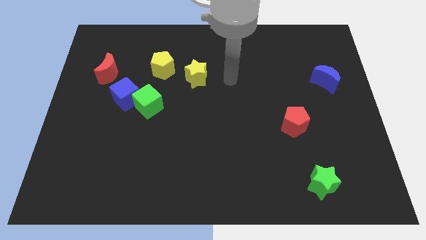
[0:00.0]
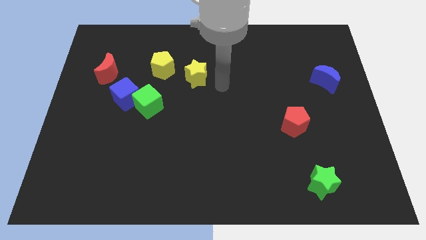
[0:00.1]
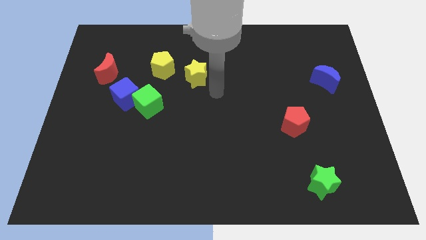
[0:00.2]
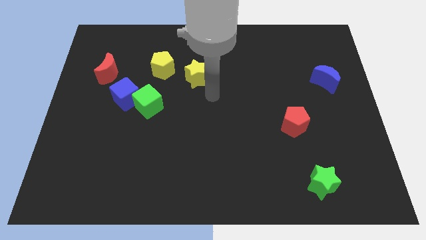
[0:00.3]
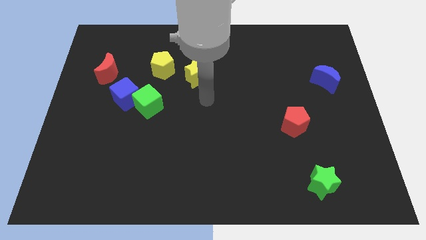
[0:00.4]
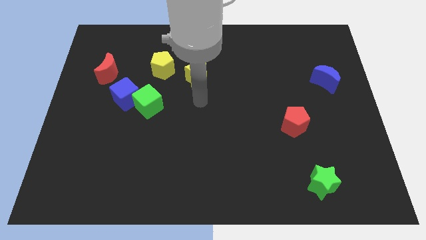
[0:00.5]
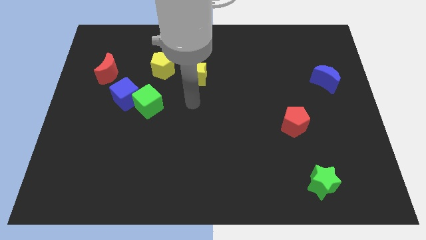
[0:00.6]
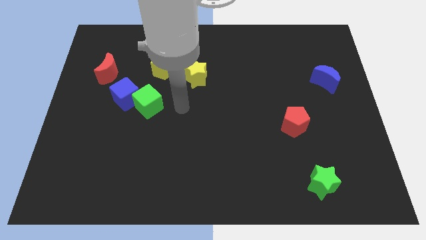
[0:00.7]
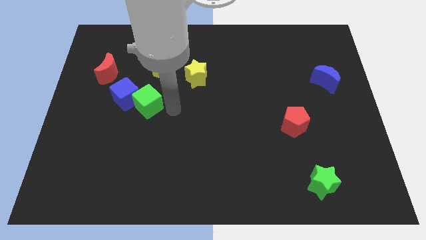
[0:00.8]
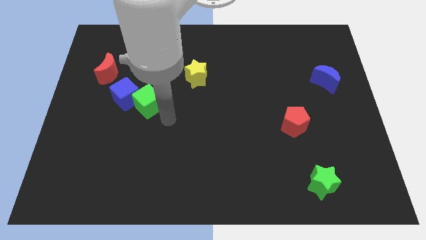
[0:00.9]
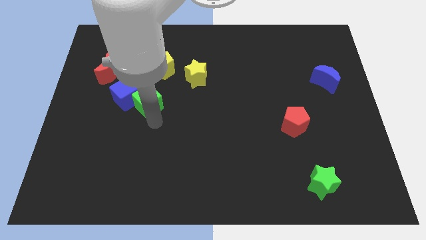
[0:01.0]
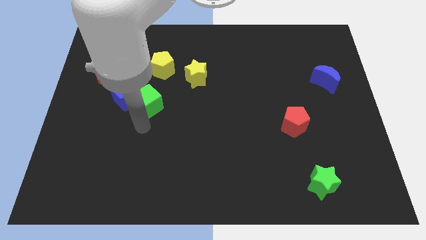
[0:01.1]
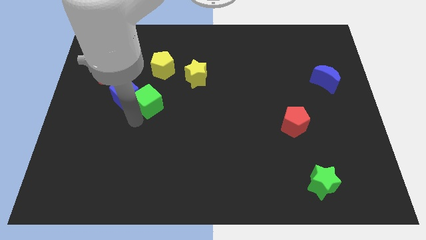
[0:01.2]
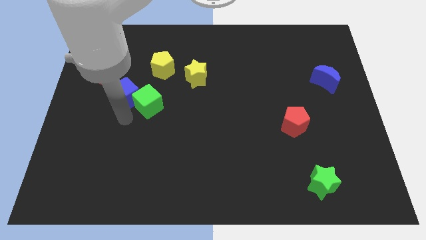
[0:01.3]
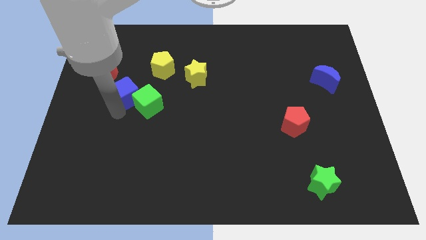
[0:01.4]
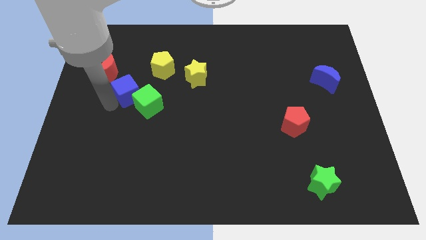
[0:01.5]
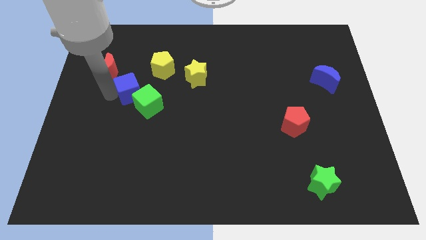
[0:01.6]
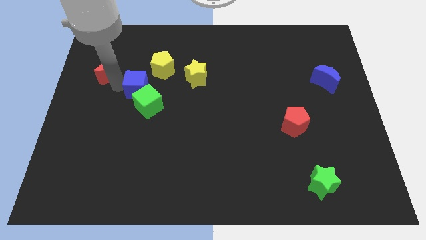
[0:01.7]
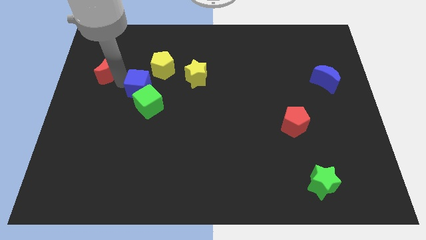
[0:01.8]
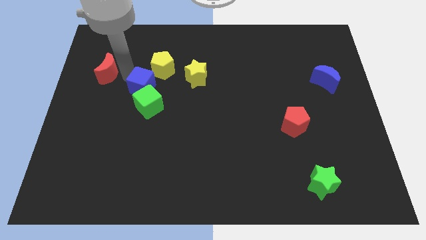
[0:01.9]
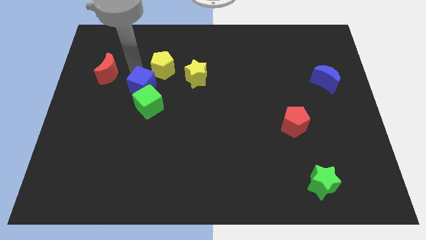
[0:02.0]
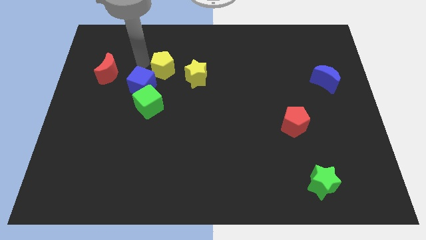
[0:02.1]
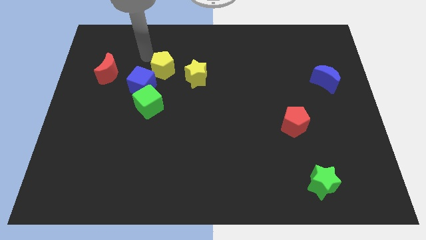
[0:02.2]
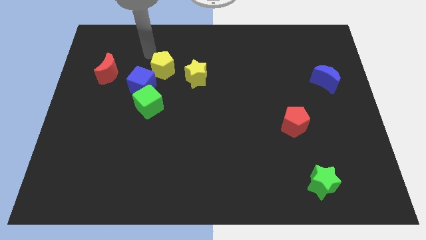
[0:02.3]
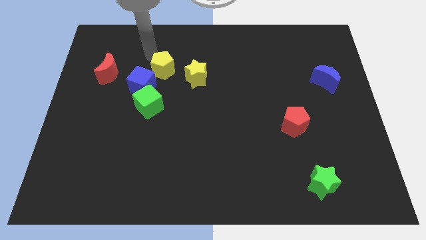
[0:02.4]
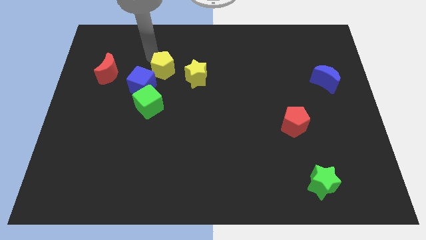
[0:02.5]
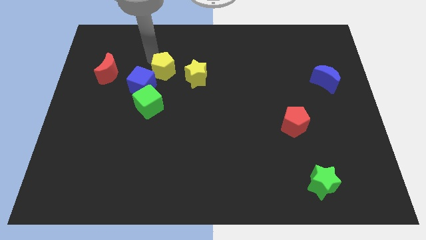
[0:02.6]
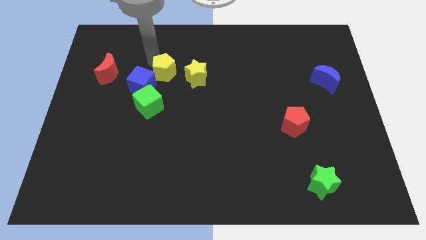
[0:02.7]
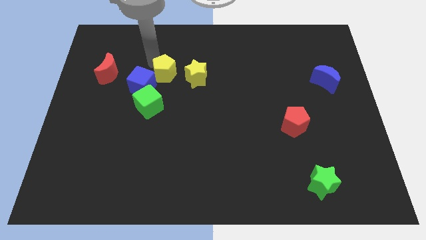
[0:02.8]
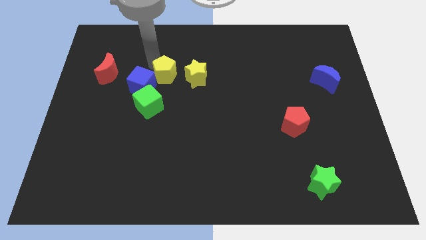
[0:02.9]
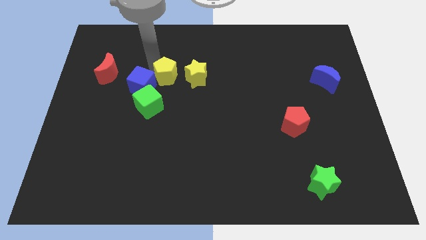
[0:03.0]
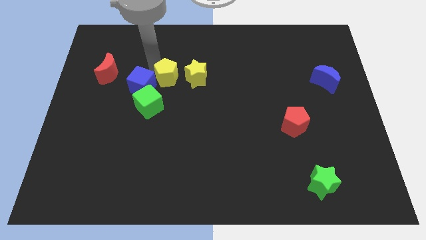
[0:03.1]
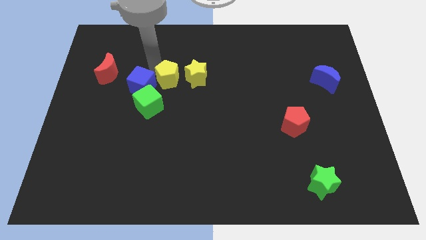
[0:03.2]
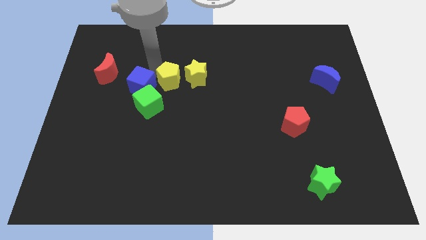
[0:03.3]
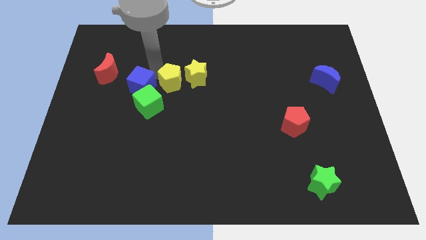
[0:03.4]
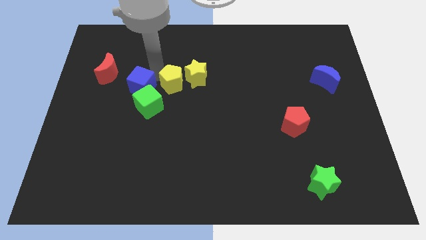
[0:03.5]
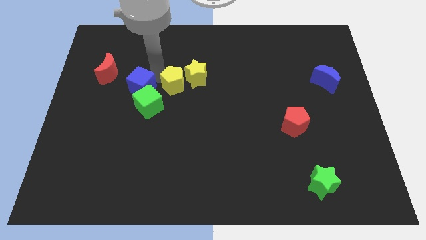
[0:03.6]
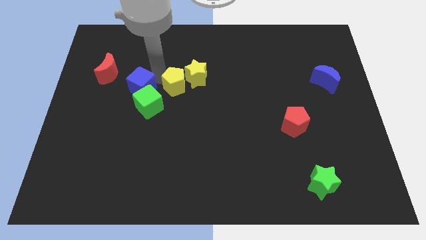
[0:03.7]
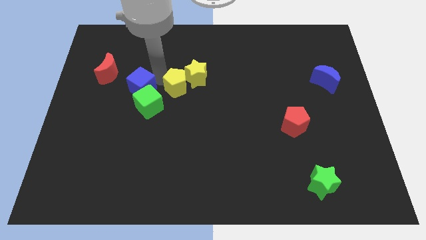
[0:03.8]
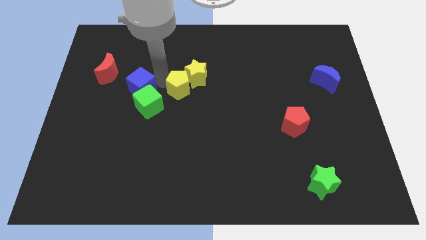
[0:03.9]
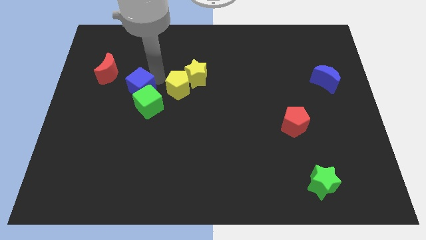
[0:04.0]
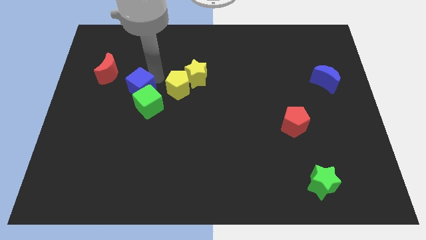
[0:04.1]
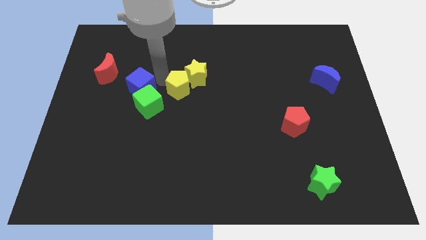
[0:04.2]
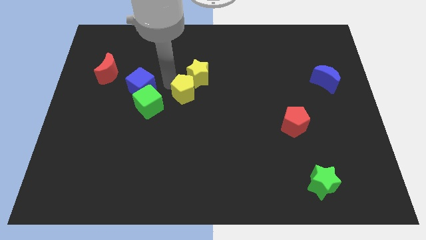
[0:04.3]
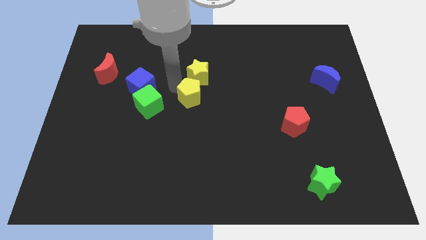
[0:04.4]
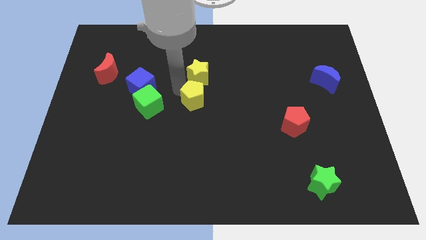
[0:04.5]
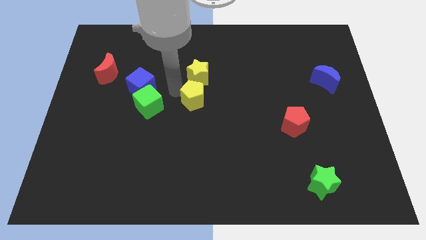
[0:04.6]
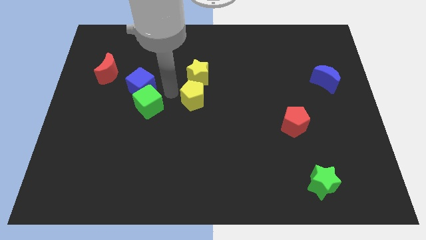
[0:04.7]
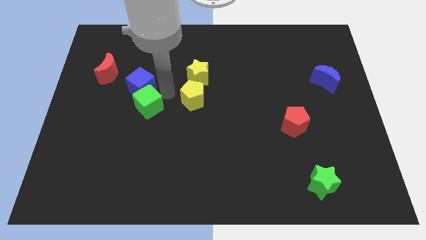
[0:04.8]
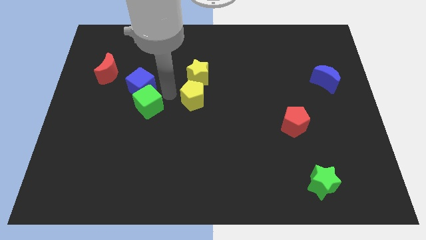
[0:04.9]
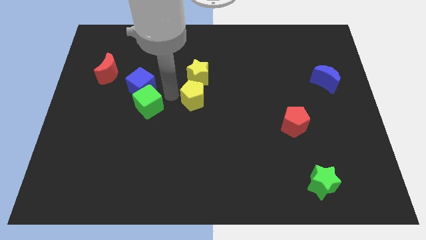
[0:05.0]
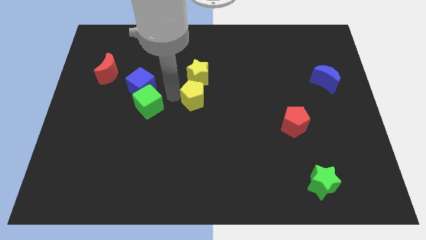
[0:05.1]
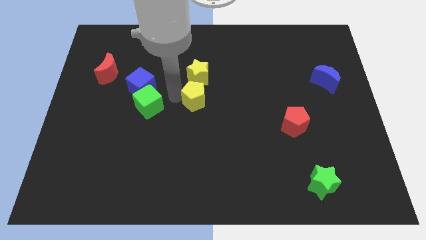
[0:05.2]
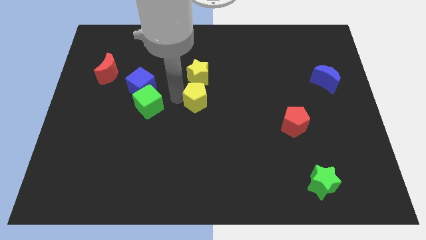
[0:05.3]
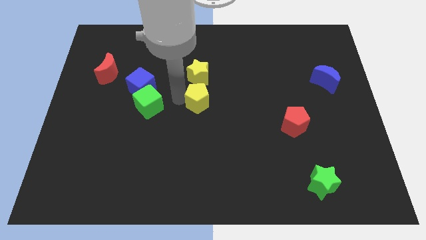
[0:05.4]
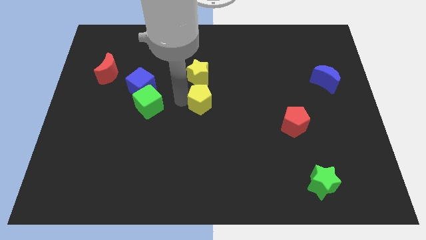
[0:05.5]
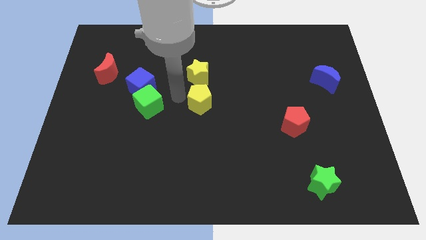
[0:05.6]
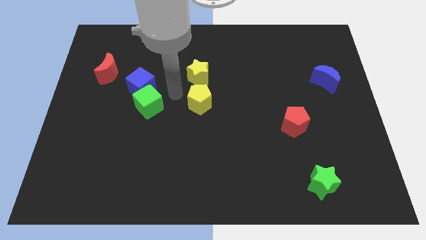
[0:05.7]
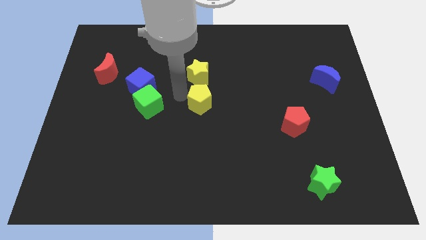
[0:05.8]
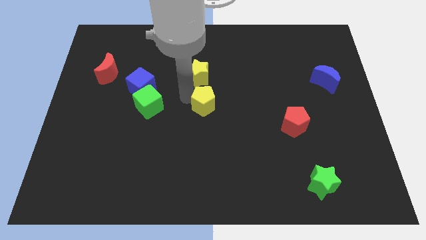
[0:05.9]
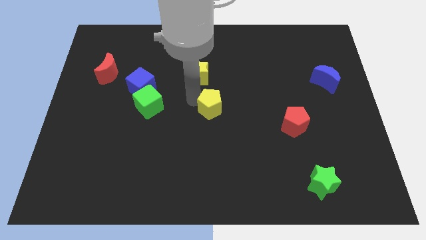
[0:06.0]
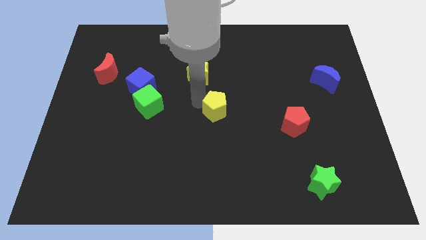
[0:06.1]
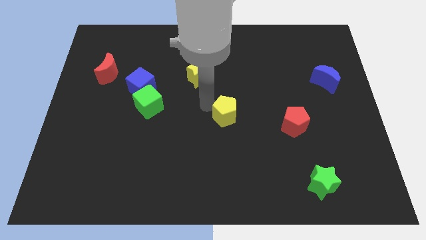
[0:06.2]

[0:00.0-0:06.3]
move the yellow pentagon down and right

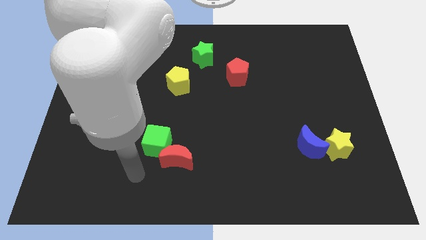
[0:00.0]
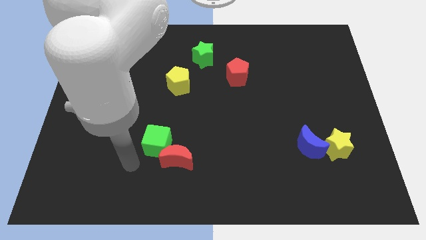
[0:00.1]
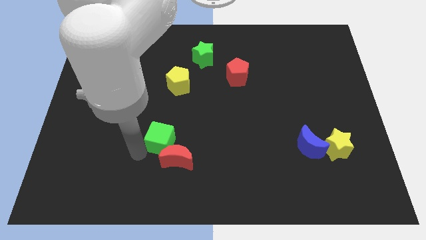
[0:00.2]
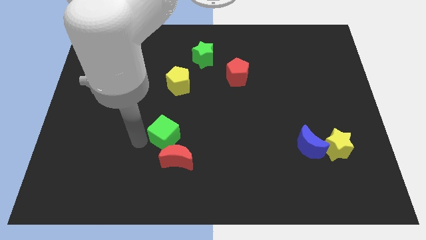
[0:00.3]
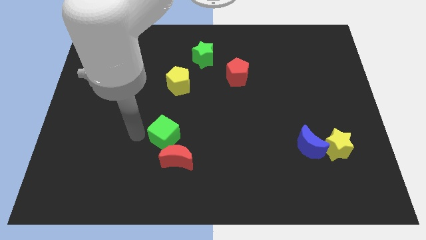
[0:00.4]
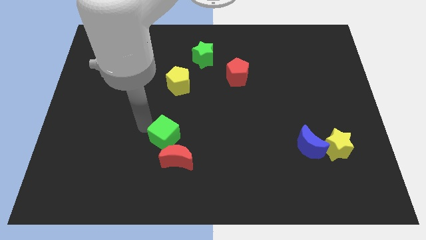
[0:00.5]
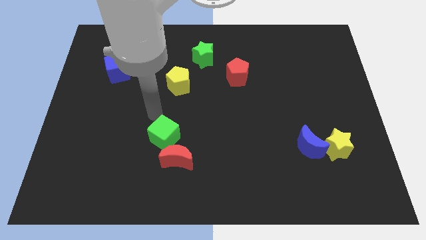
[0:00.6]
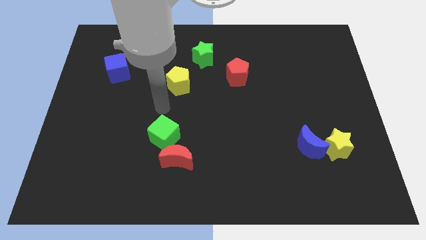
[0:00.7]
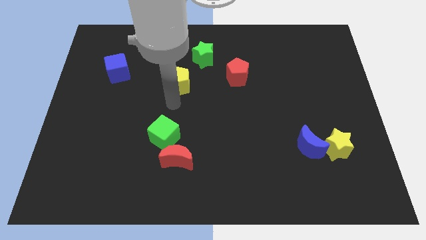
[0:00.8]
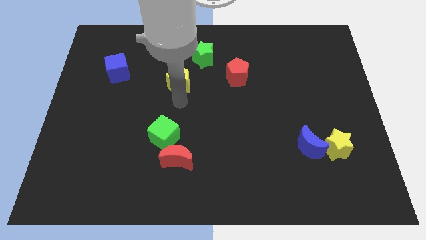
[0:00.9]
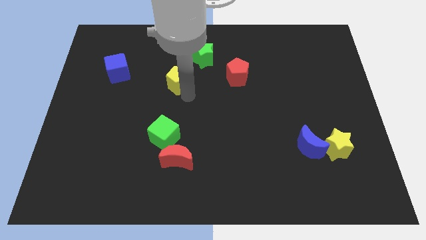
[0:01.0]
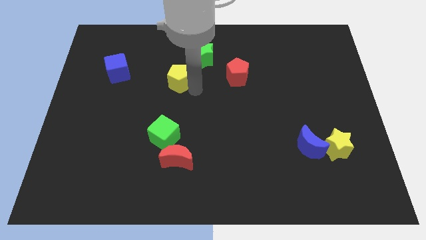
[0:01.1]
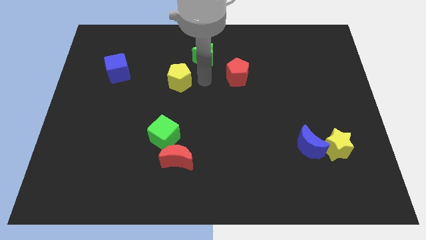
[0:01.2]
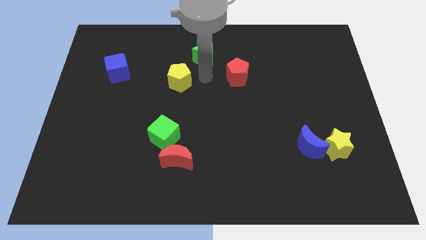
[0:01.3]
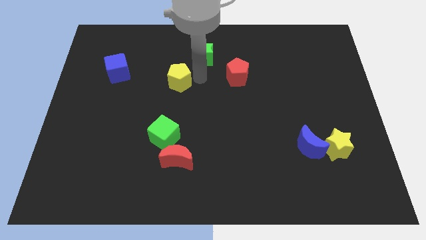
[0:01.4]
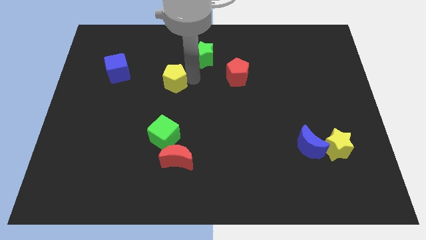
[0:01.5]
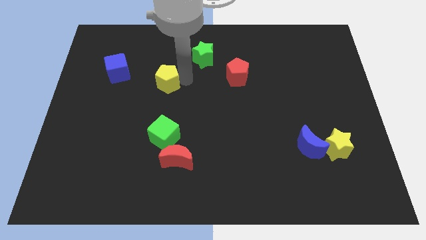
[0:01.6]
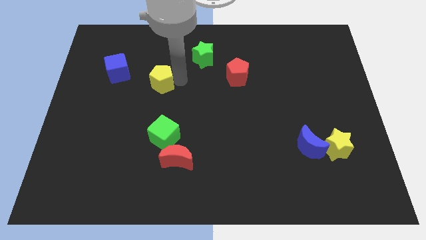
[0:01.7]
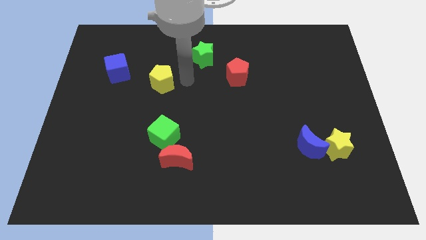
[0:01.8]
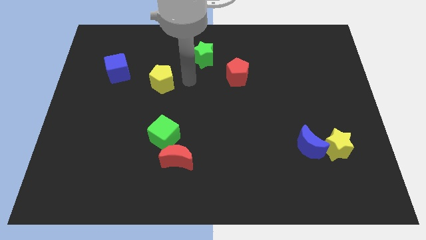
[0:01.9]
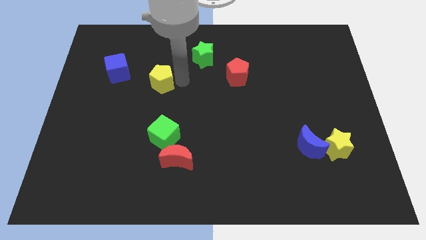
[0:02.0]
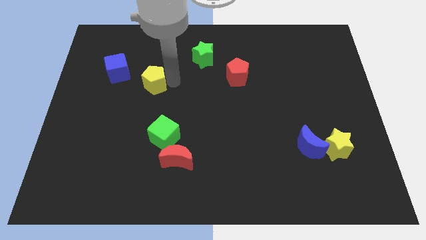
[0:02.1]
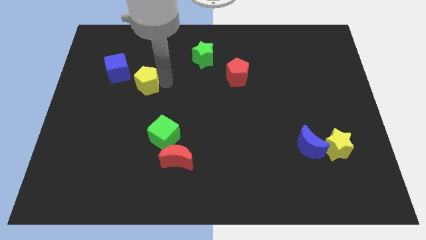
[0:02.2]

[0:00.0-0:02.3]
slide the yellow pentagon somewhat to the left
